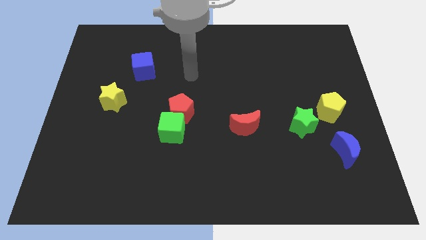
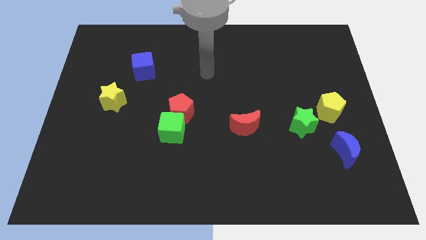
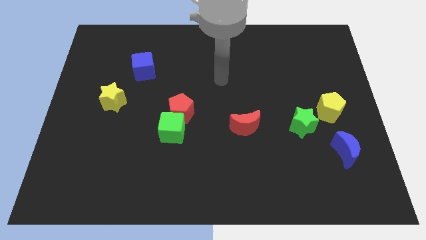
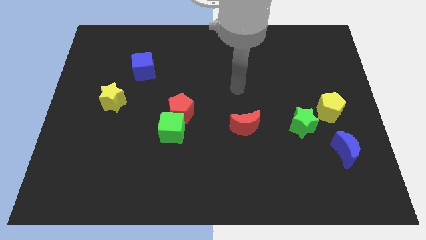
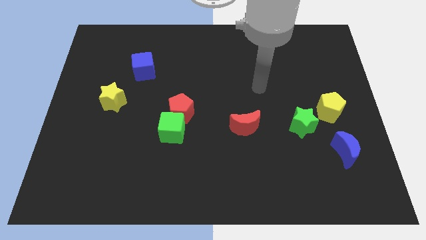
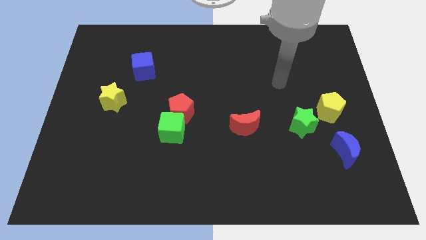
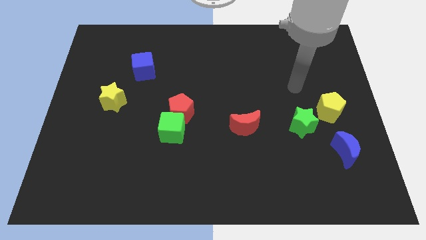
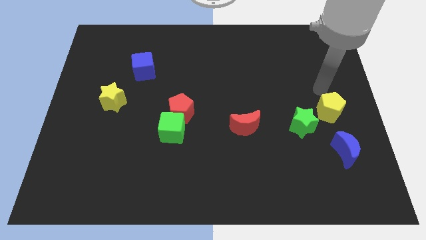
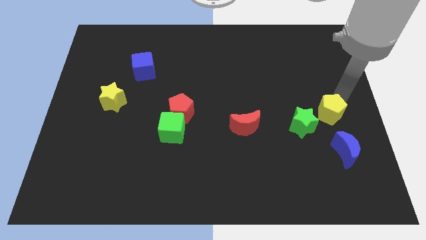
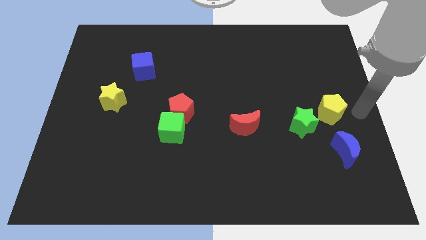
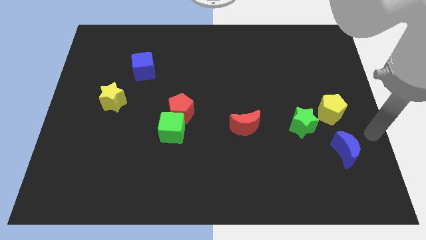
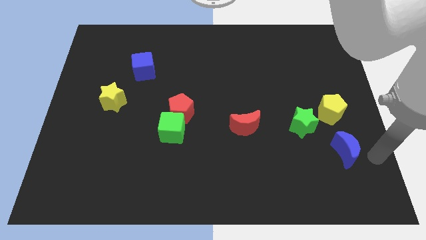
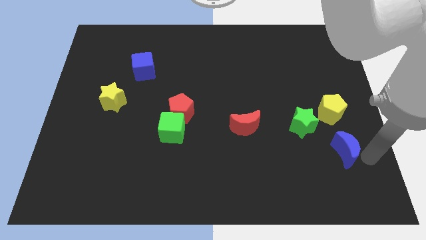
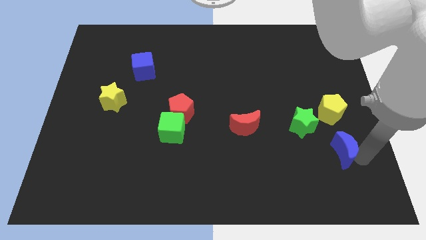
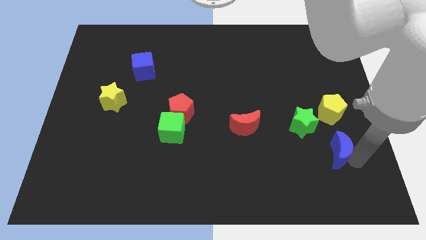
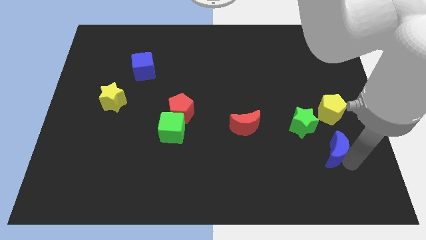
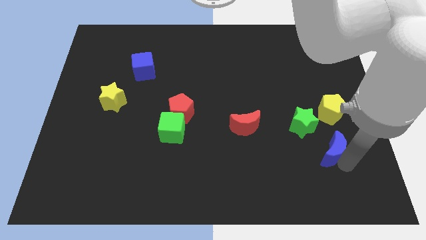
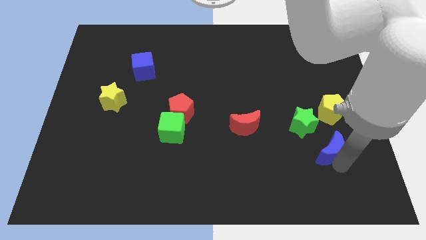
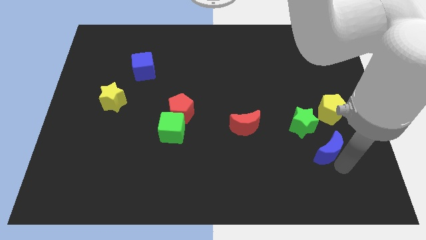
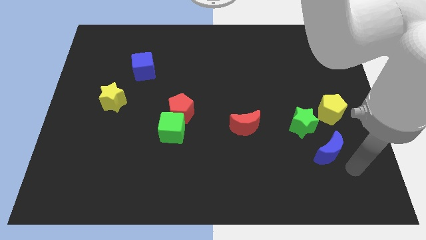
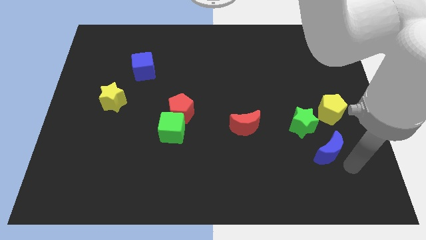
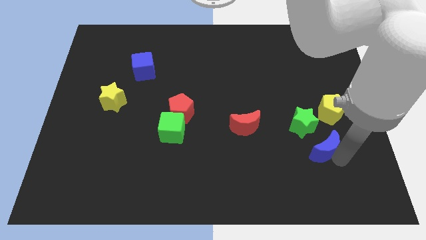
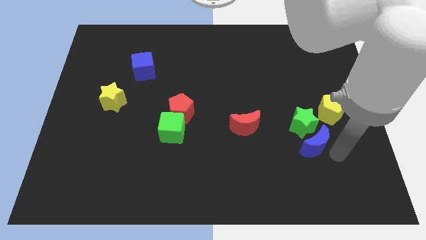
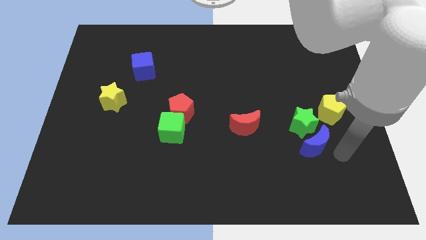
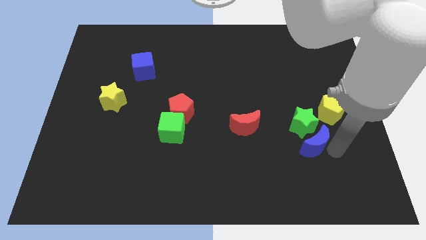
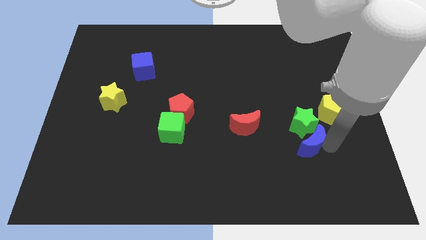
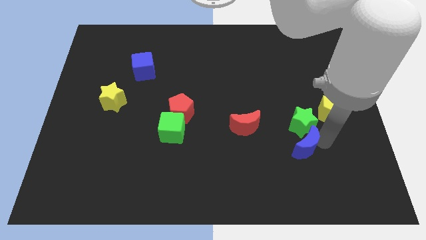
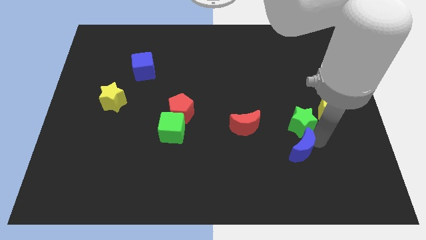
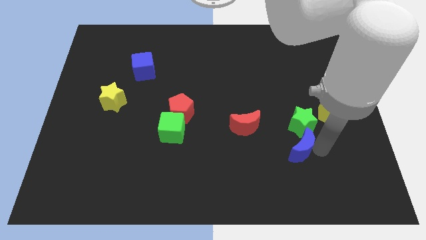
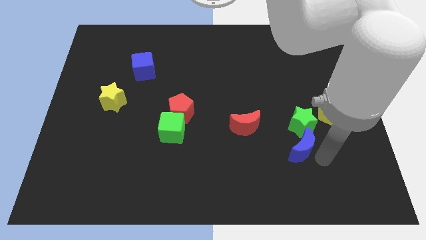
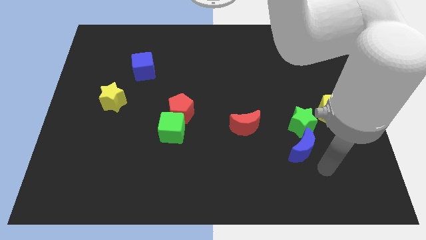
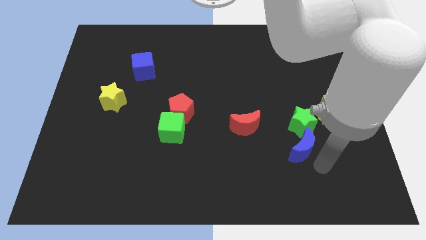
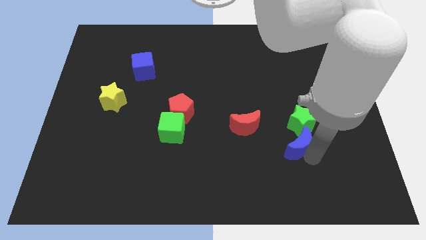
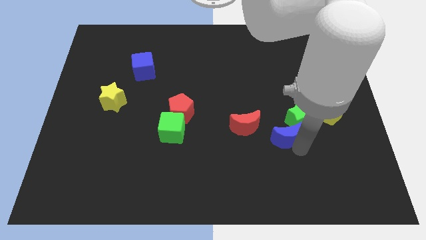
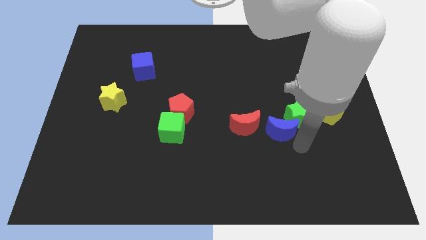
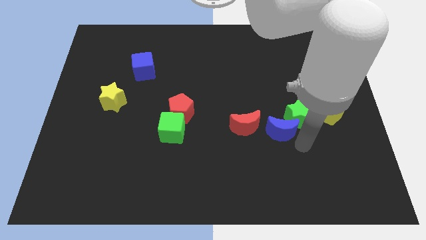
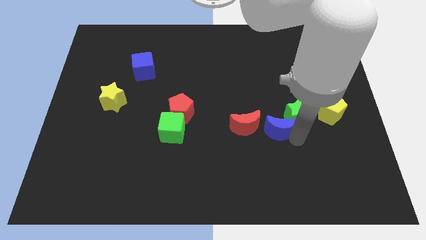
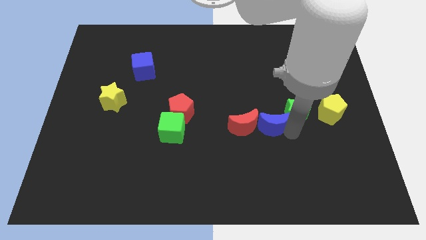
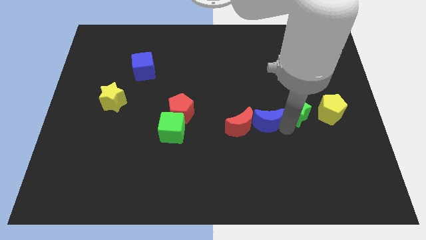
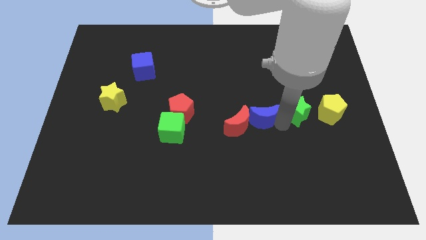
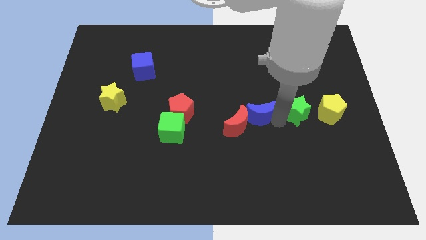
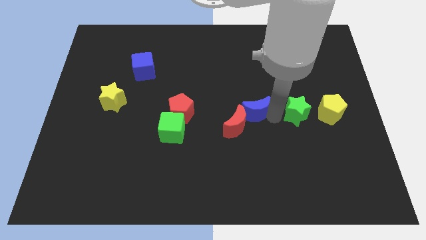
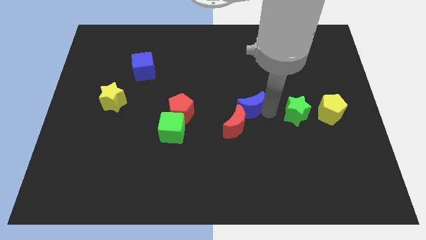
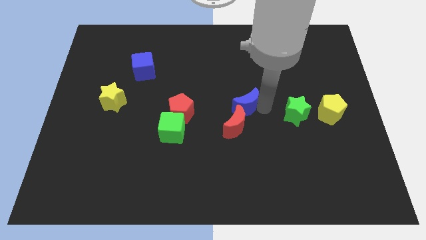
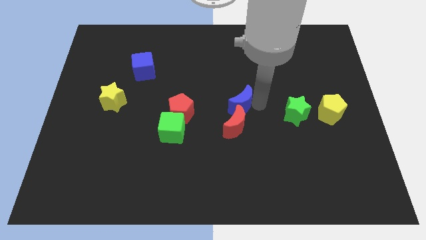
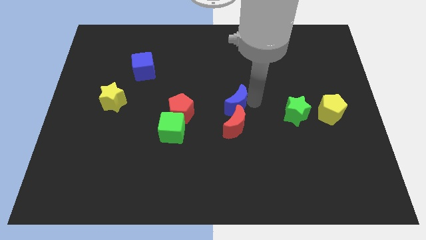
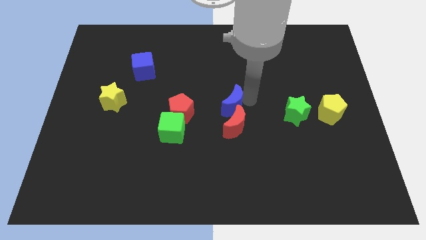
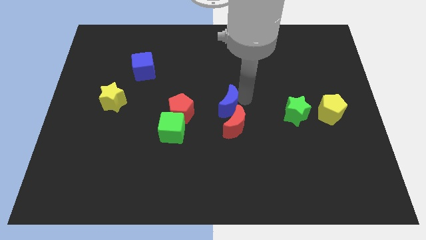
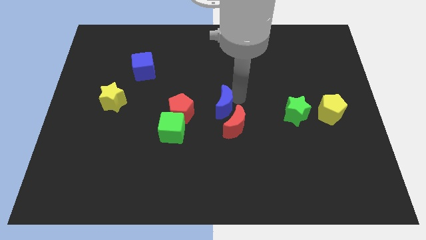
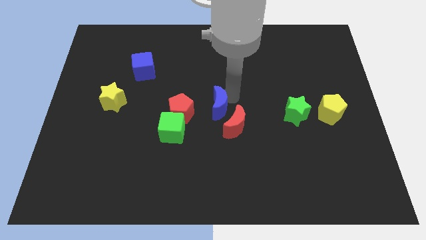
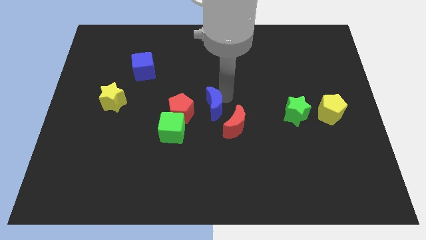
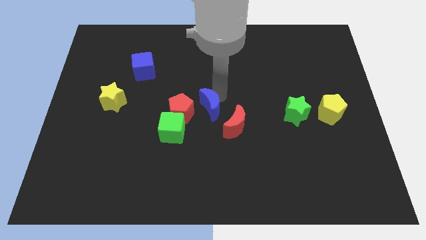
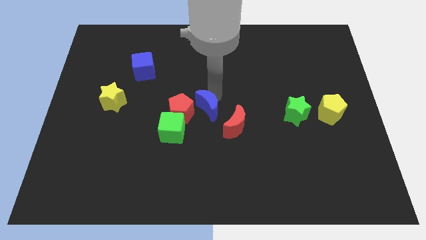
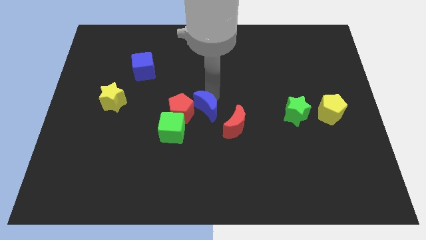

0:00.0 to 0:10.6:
push the blue moon towards the red pentagon

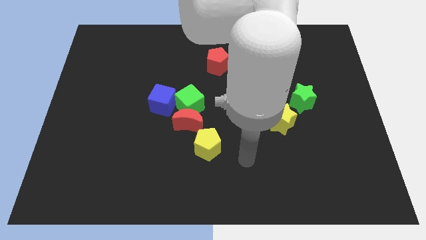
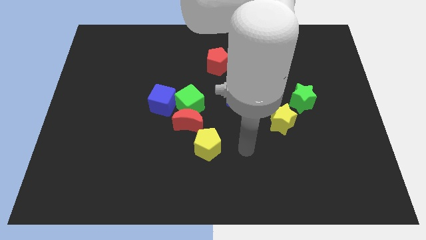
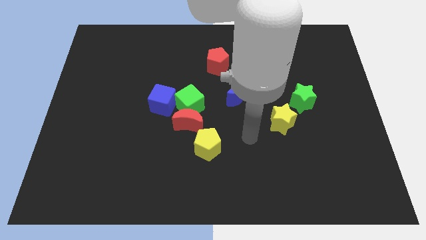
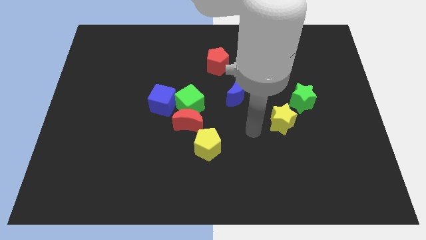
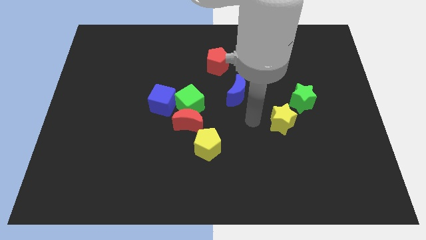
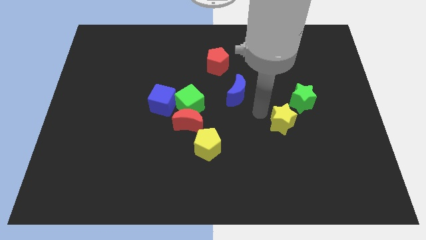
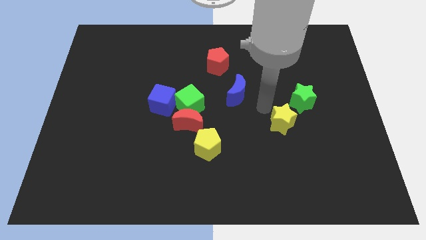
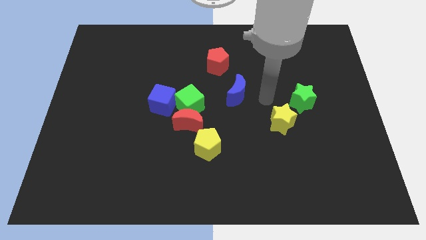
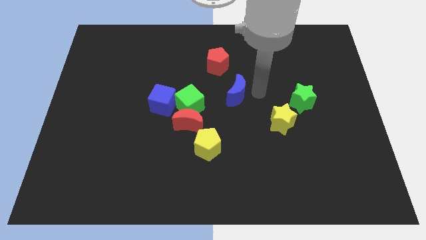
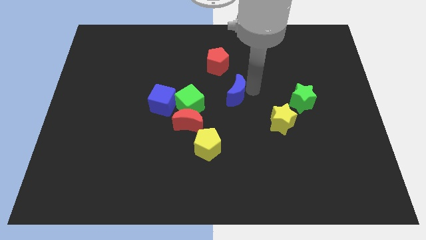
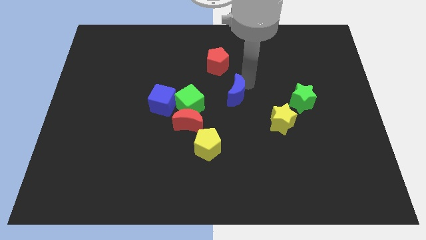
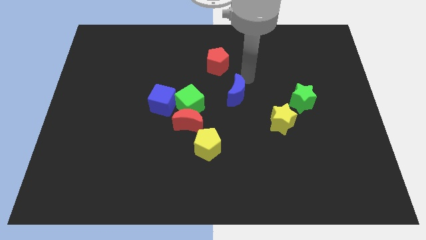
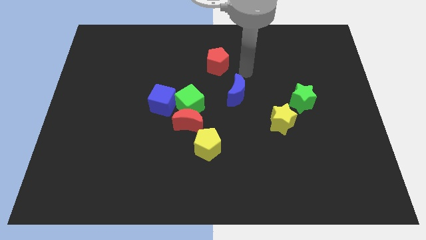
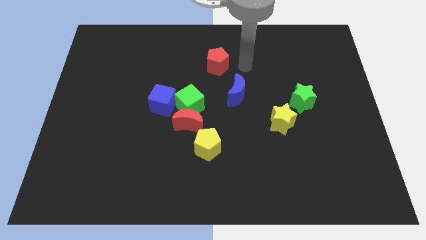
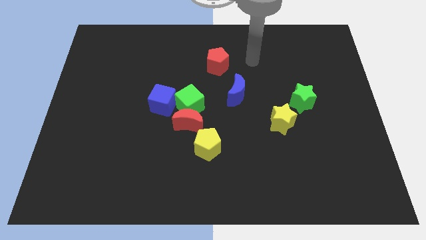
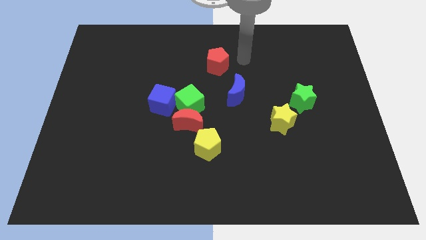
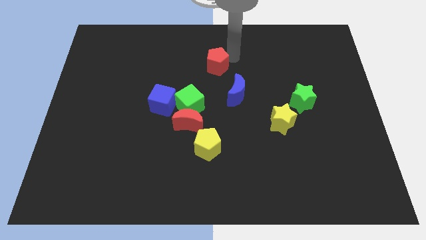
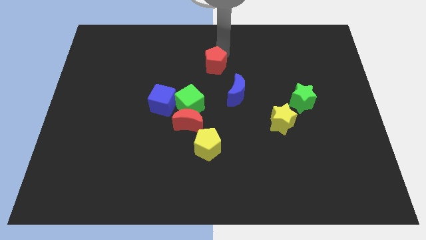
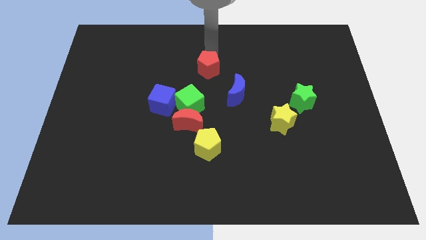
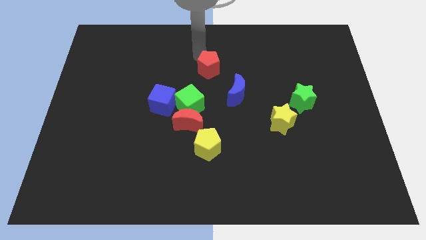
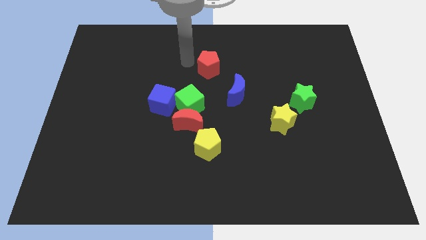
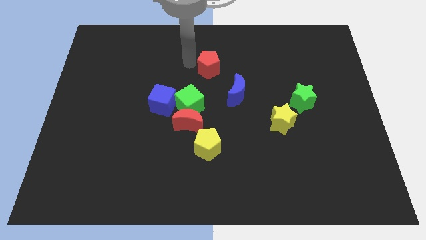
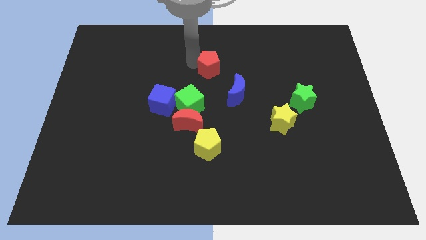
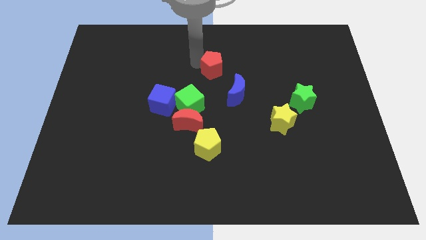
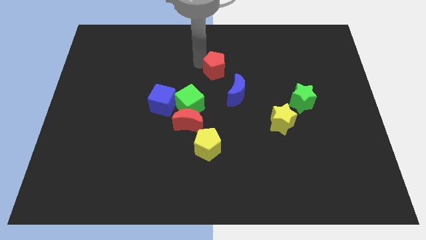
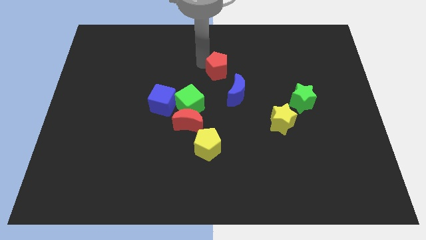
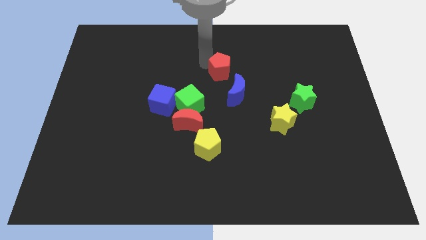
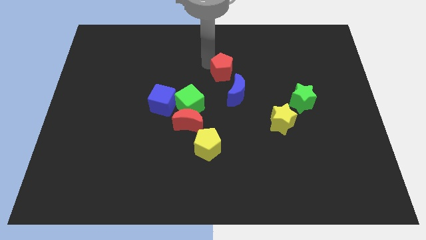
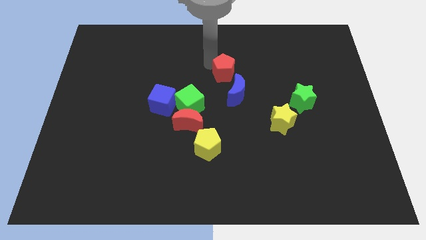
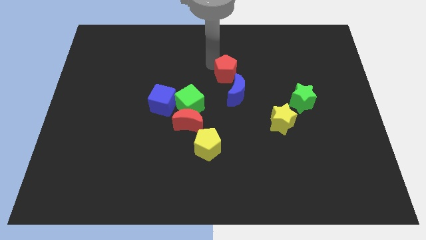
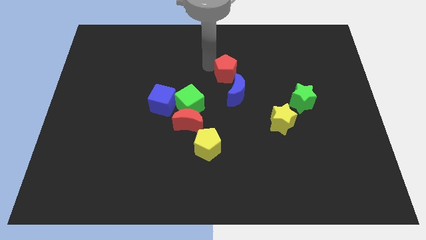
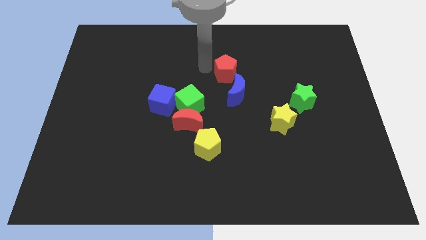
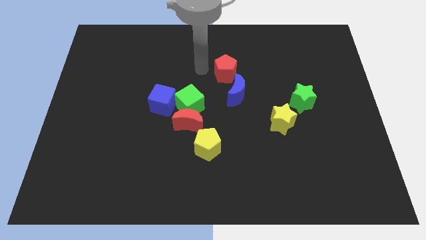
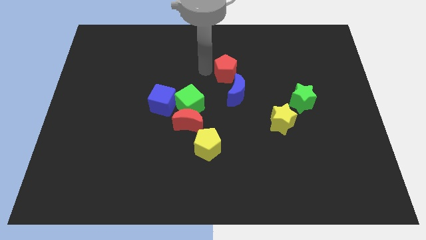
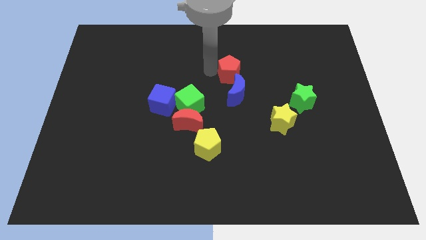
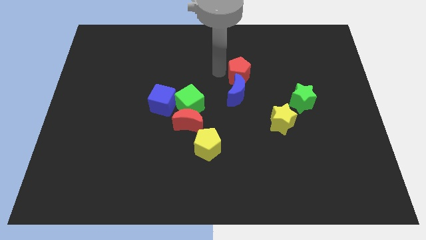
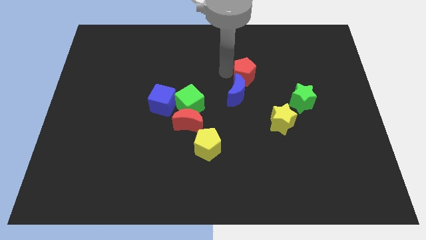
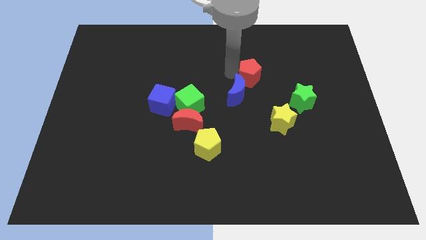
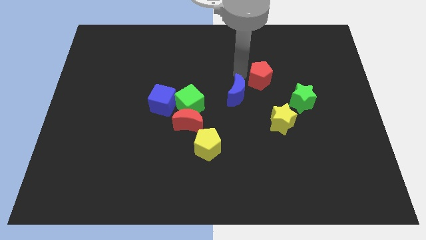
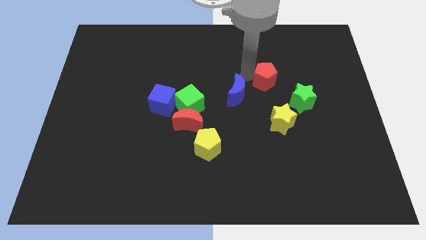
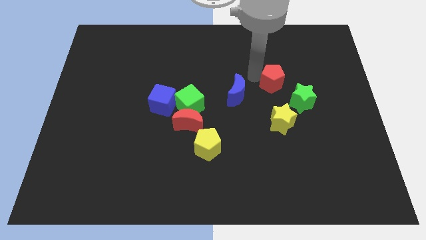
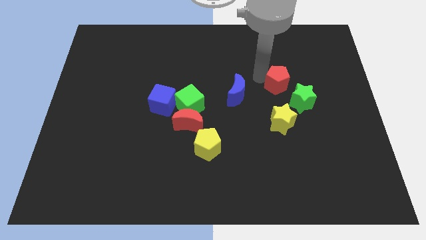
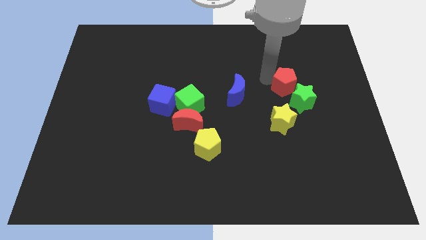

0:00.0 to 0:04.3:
push the red pentagon to the green star
